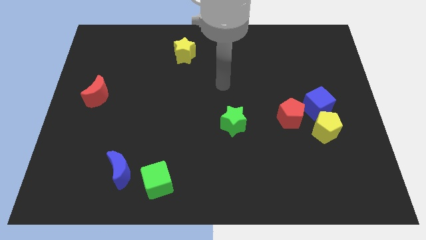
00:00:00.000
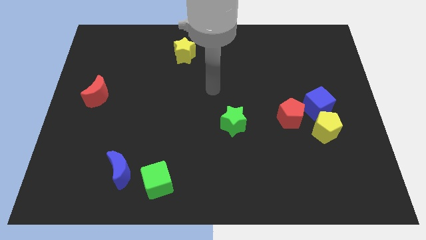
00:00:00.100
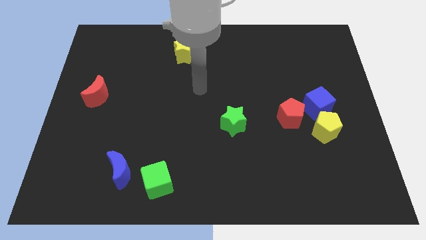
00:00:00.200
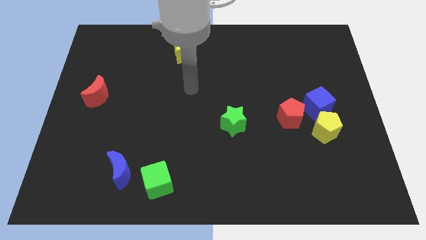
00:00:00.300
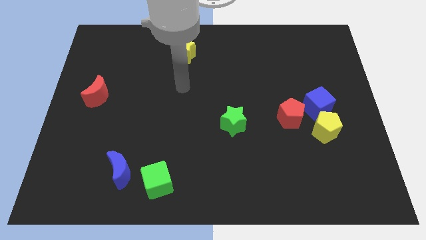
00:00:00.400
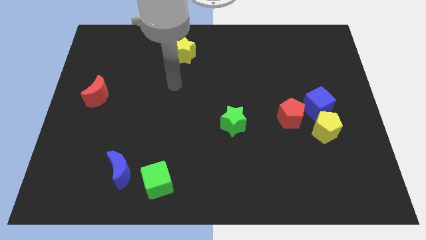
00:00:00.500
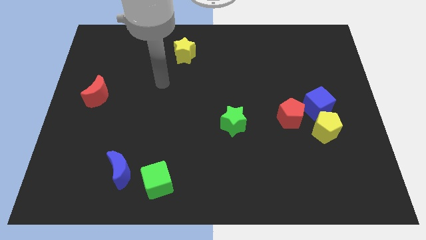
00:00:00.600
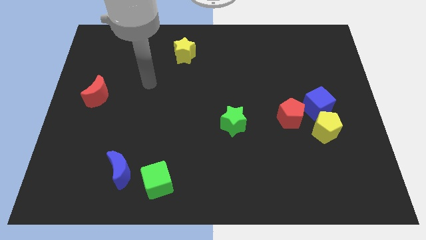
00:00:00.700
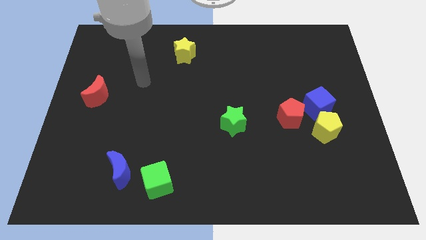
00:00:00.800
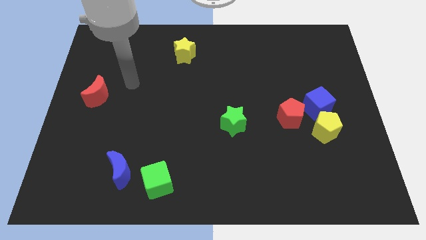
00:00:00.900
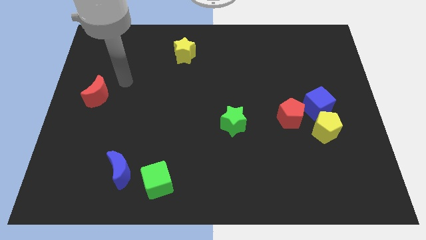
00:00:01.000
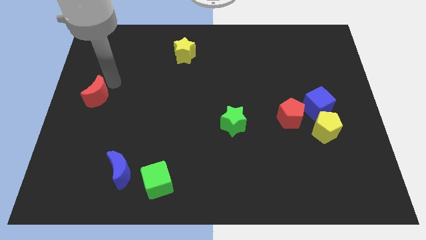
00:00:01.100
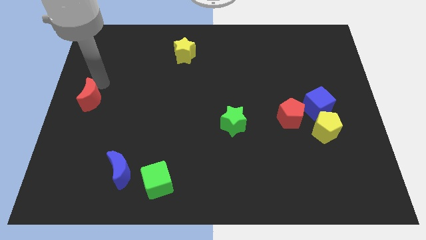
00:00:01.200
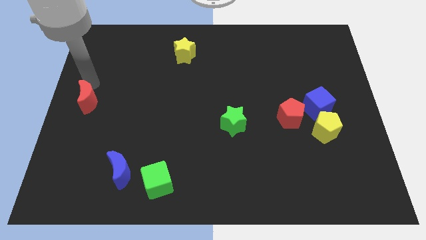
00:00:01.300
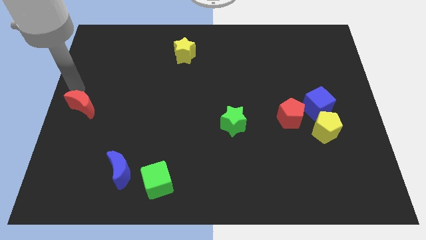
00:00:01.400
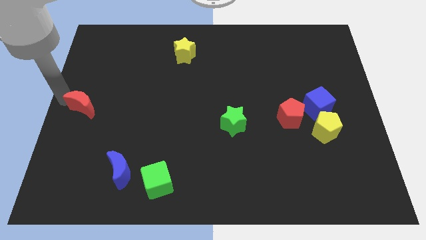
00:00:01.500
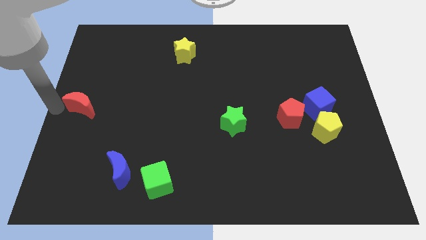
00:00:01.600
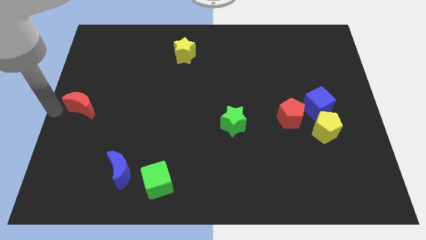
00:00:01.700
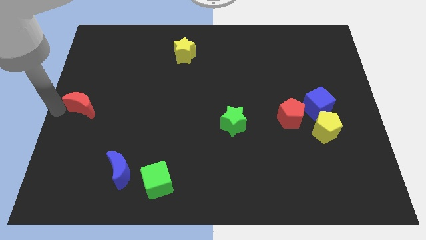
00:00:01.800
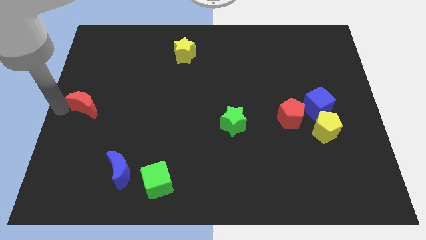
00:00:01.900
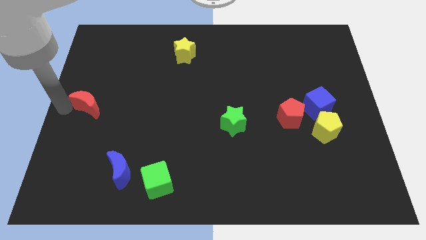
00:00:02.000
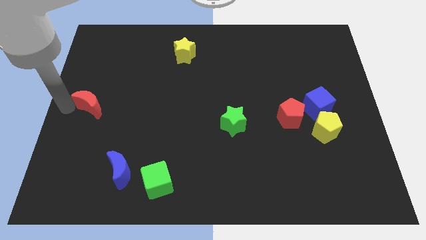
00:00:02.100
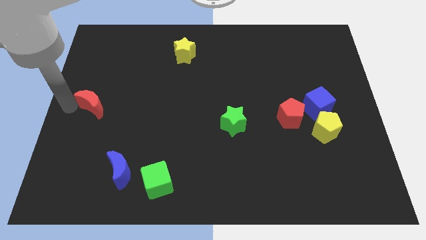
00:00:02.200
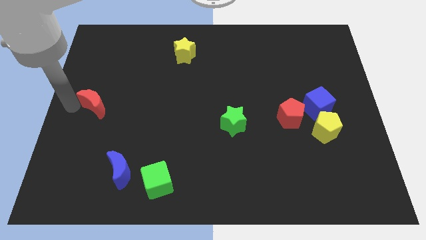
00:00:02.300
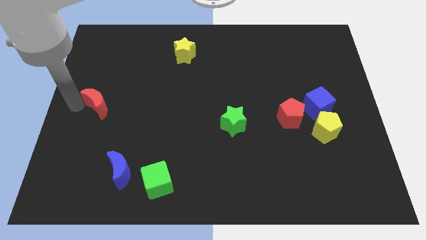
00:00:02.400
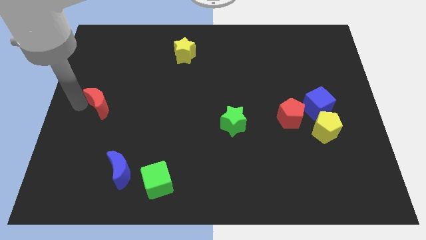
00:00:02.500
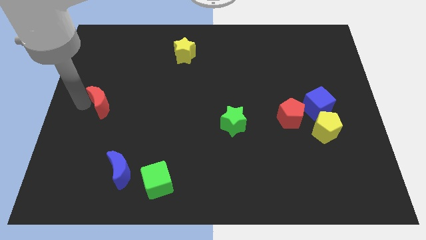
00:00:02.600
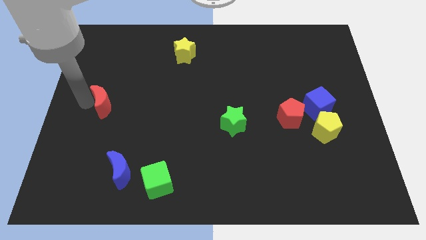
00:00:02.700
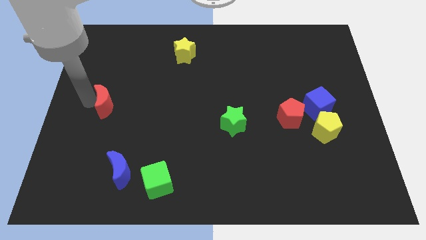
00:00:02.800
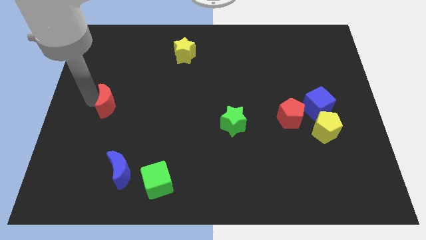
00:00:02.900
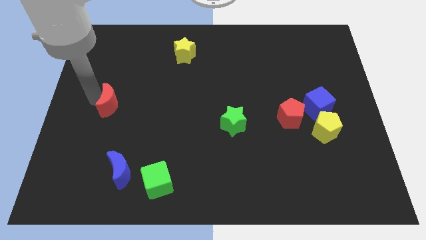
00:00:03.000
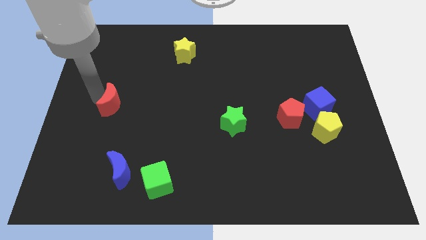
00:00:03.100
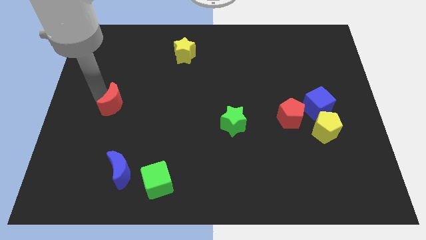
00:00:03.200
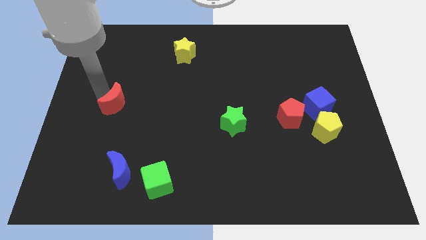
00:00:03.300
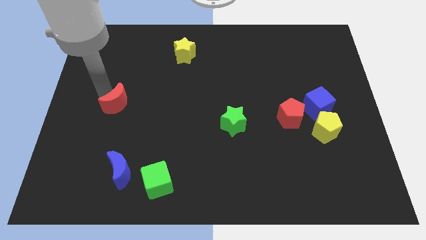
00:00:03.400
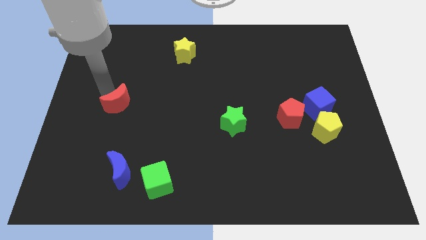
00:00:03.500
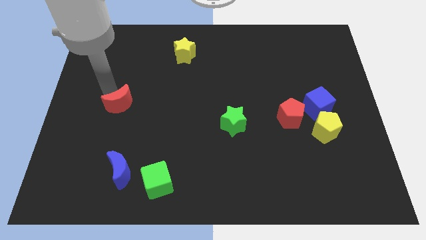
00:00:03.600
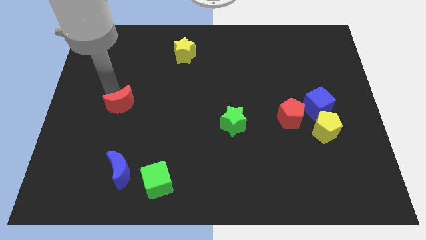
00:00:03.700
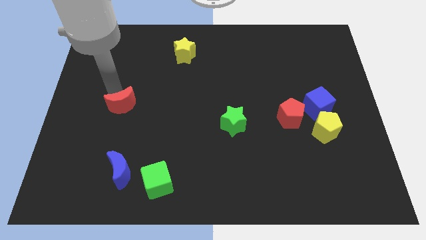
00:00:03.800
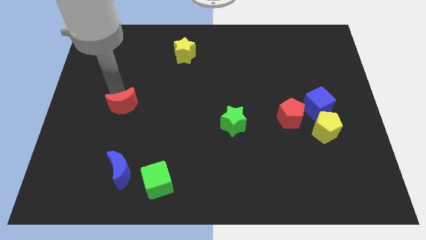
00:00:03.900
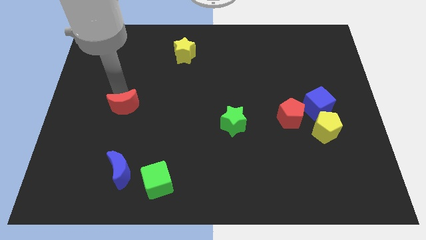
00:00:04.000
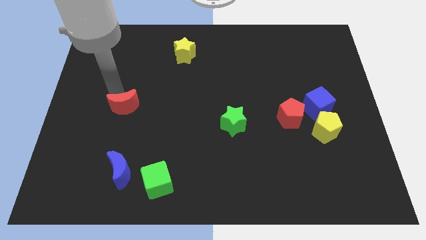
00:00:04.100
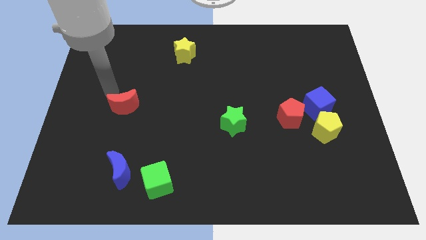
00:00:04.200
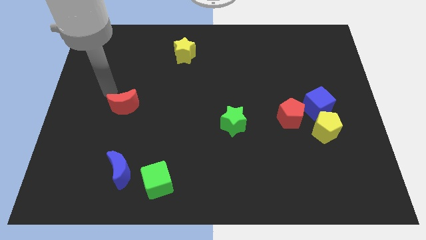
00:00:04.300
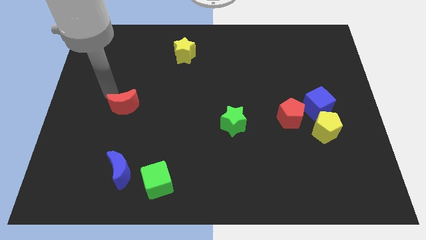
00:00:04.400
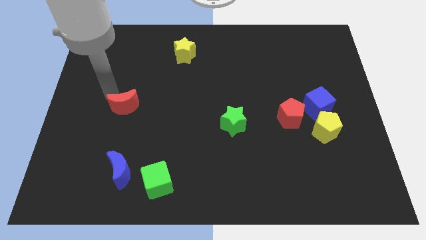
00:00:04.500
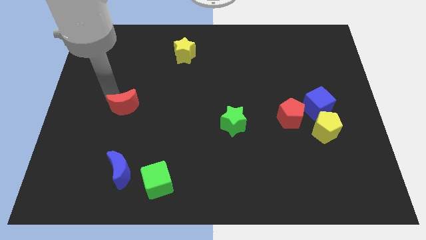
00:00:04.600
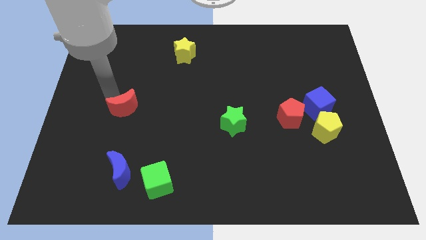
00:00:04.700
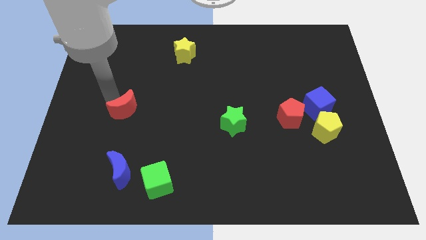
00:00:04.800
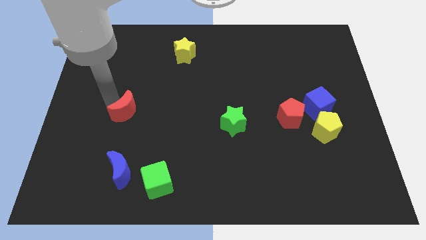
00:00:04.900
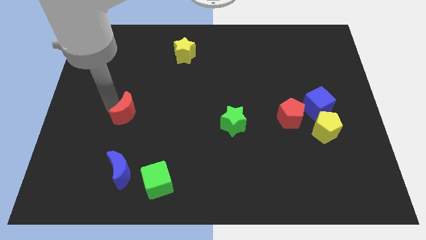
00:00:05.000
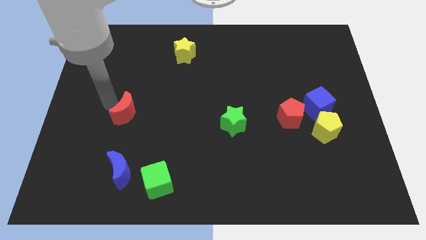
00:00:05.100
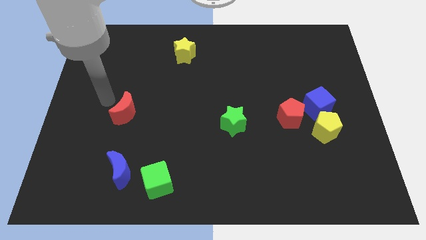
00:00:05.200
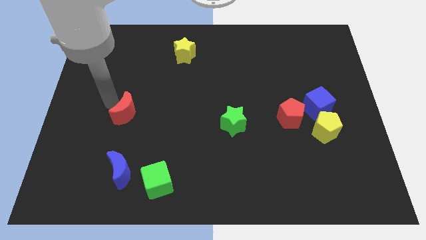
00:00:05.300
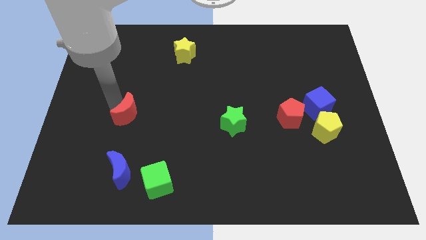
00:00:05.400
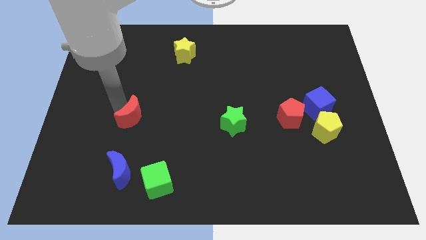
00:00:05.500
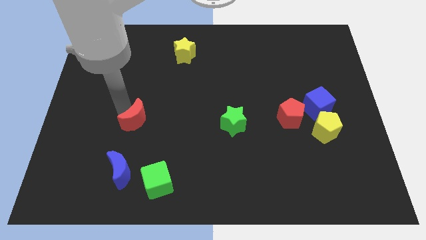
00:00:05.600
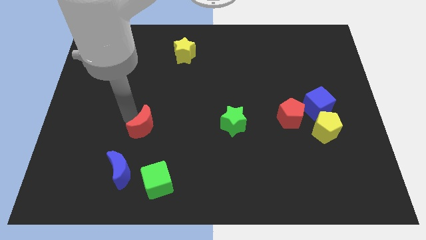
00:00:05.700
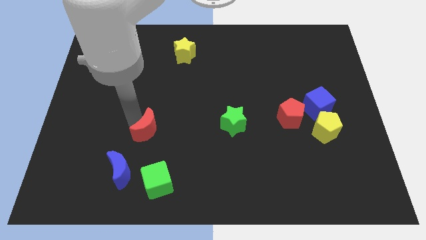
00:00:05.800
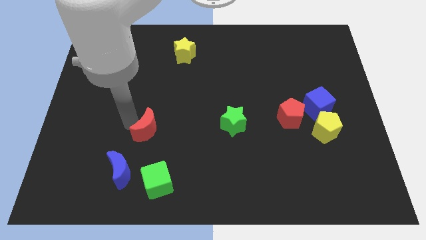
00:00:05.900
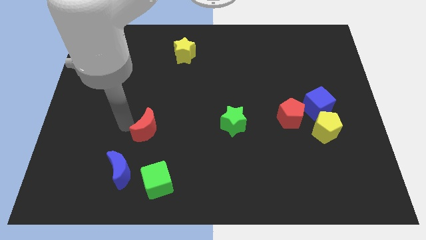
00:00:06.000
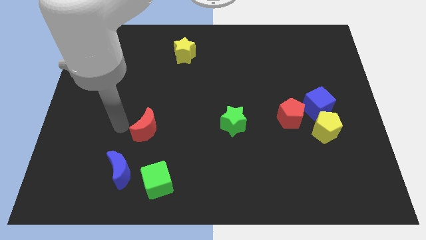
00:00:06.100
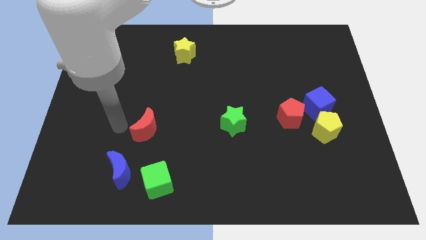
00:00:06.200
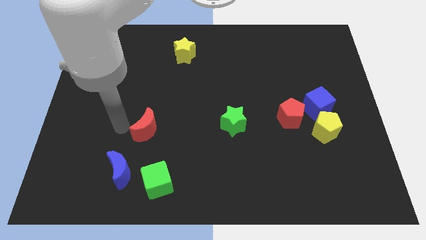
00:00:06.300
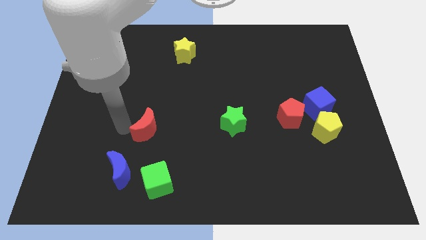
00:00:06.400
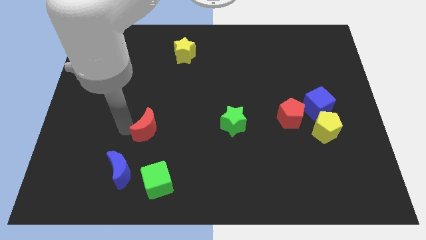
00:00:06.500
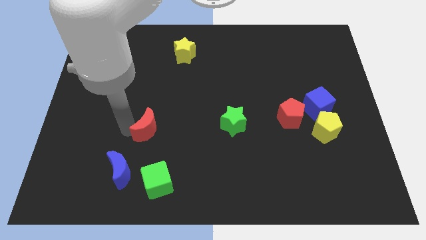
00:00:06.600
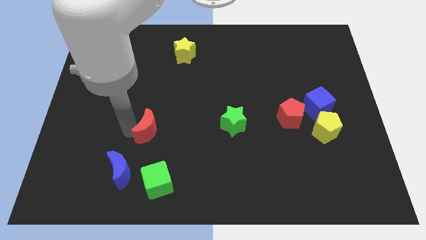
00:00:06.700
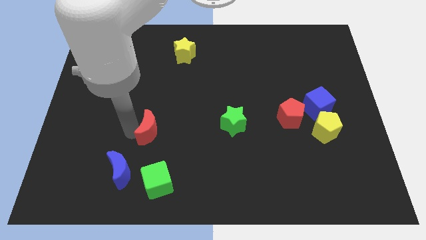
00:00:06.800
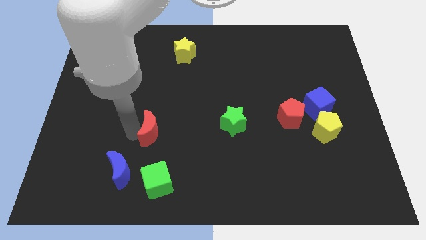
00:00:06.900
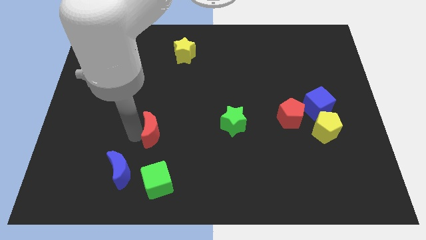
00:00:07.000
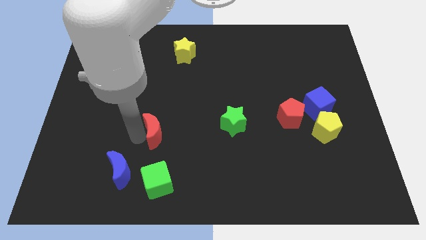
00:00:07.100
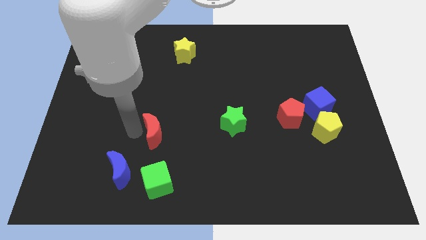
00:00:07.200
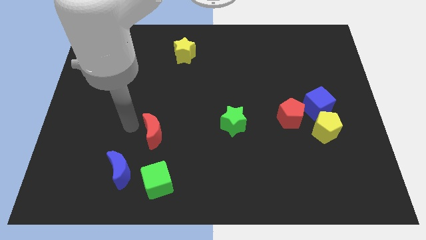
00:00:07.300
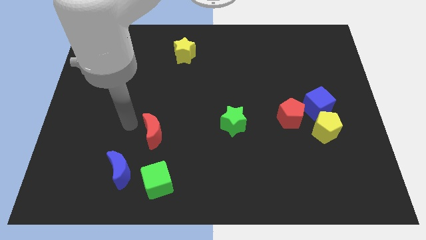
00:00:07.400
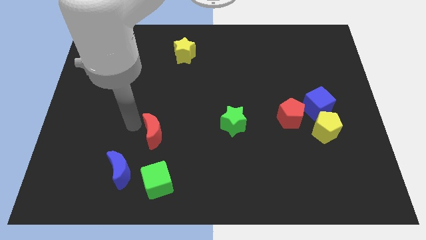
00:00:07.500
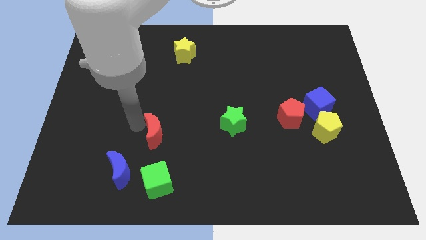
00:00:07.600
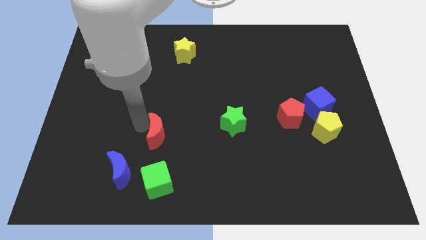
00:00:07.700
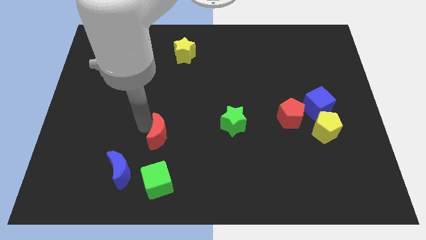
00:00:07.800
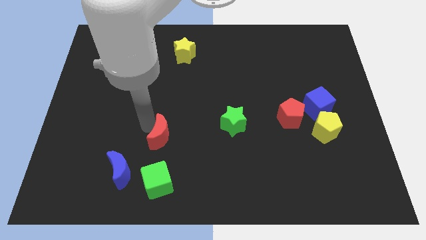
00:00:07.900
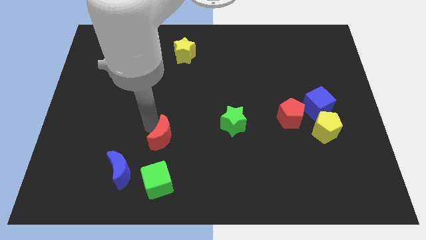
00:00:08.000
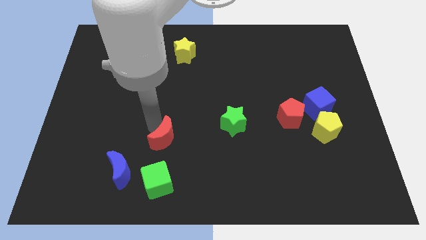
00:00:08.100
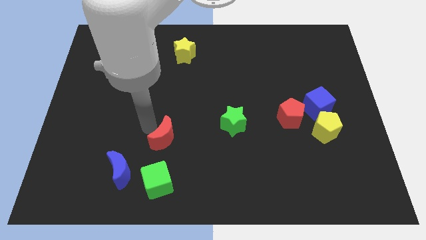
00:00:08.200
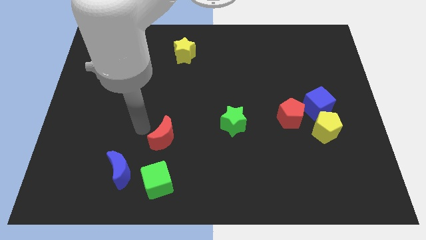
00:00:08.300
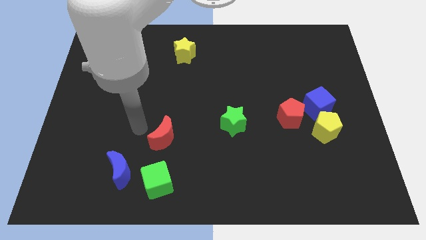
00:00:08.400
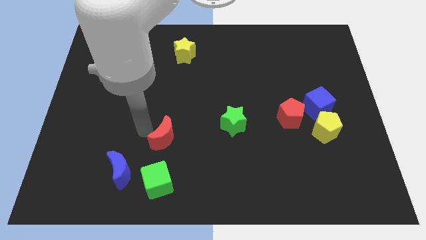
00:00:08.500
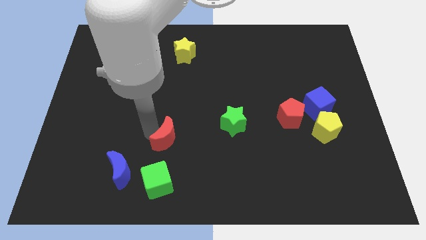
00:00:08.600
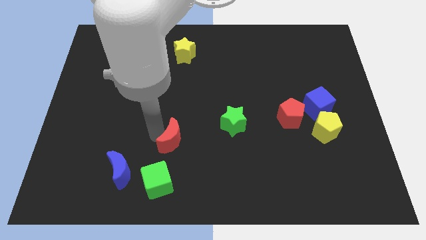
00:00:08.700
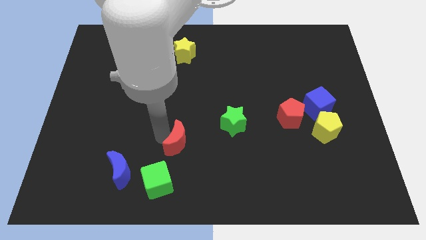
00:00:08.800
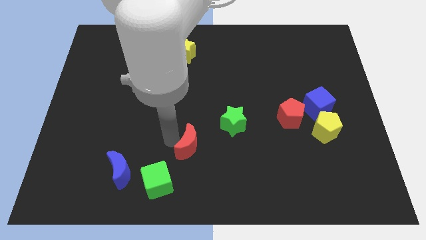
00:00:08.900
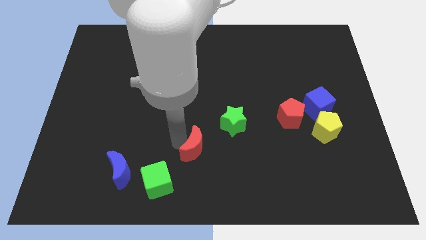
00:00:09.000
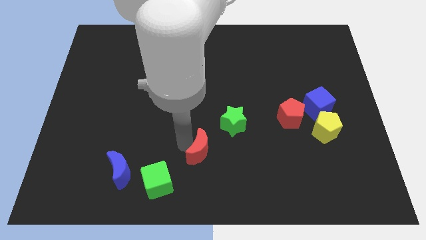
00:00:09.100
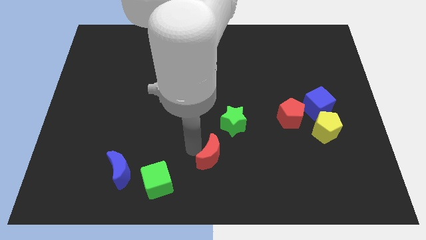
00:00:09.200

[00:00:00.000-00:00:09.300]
put the red moon below the green star
